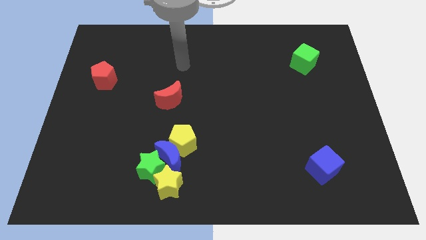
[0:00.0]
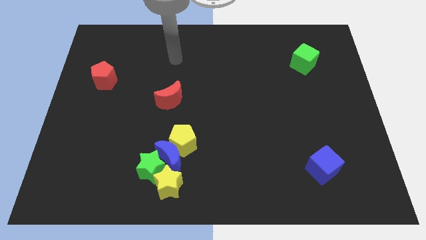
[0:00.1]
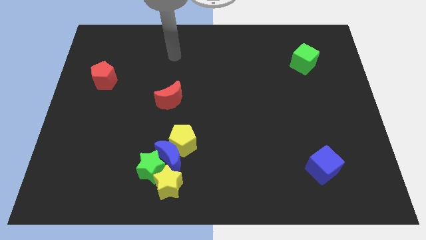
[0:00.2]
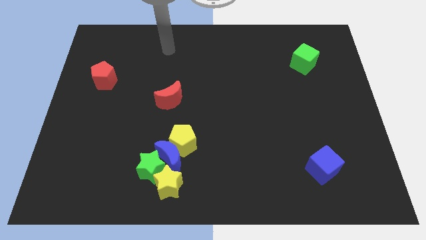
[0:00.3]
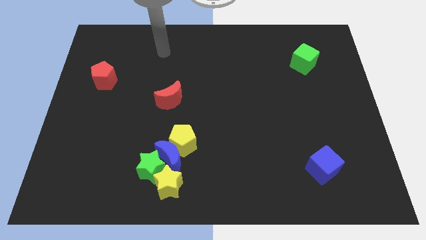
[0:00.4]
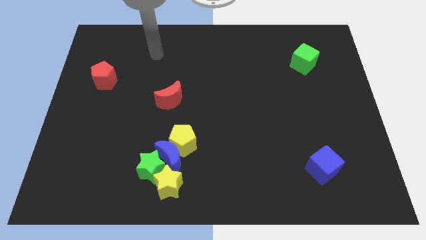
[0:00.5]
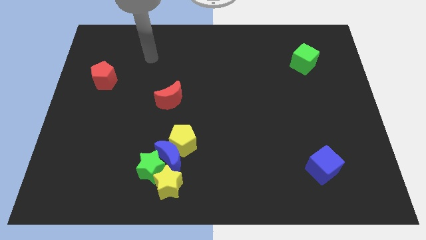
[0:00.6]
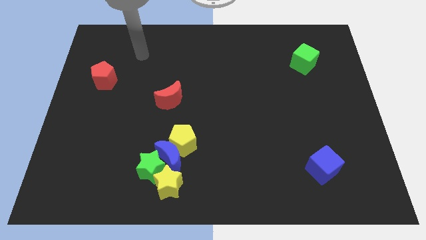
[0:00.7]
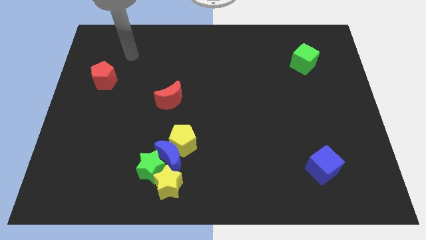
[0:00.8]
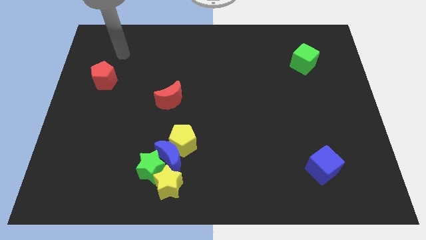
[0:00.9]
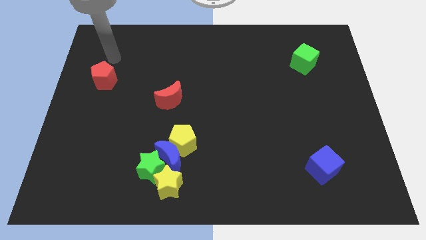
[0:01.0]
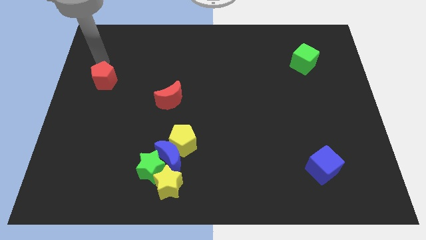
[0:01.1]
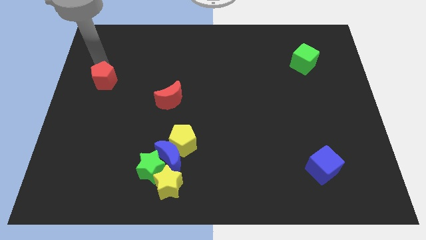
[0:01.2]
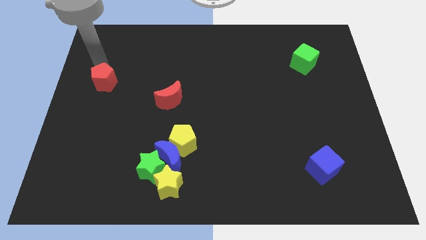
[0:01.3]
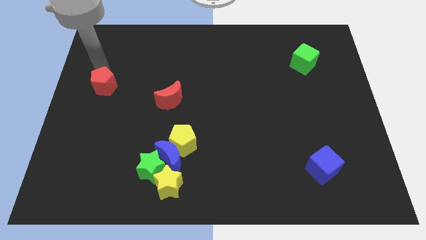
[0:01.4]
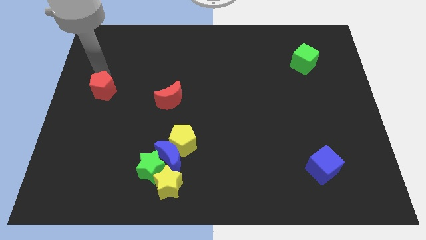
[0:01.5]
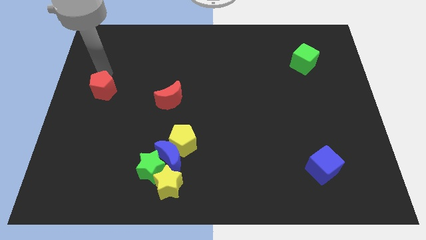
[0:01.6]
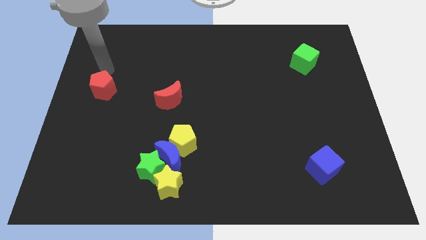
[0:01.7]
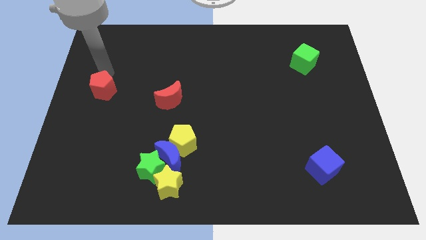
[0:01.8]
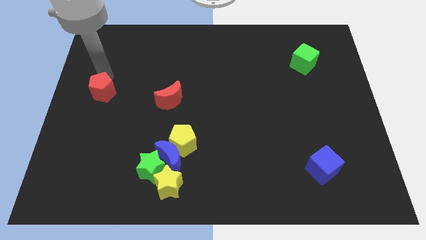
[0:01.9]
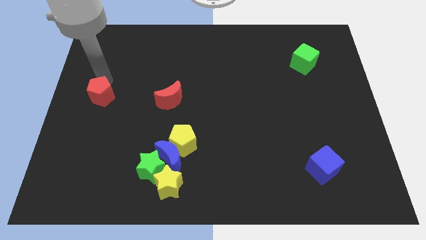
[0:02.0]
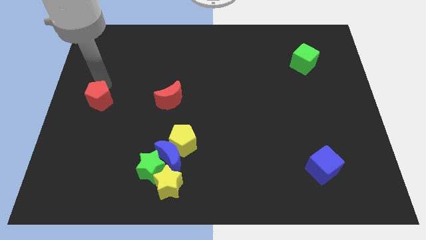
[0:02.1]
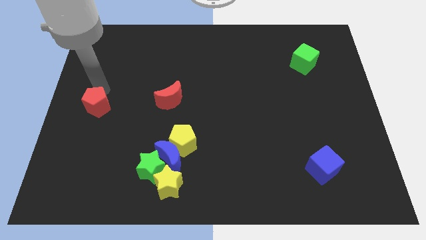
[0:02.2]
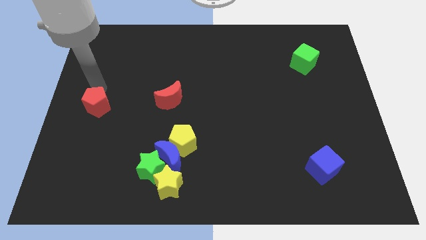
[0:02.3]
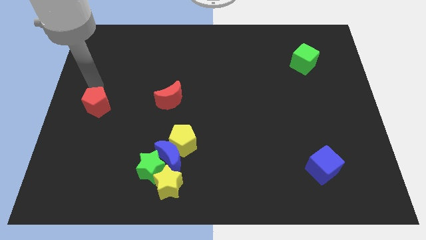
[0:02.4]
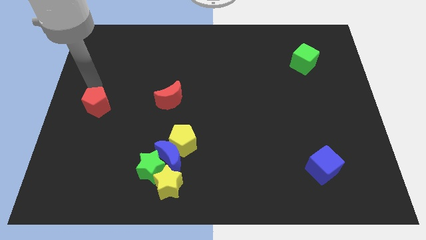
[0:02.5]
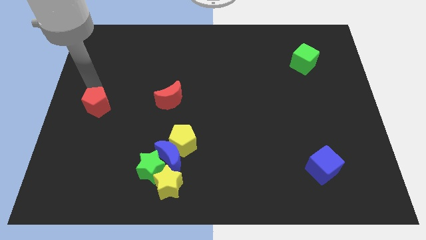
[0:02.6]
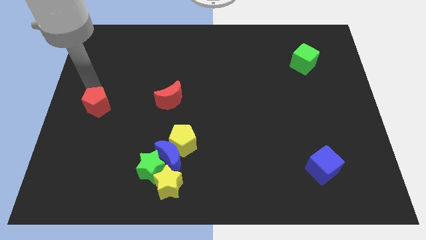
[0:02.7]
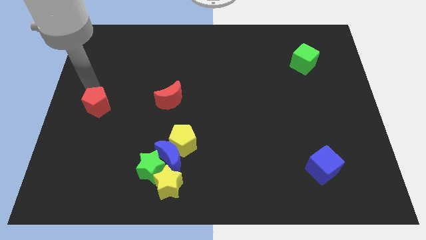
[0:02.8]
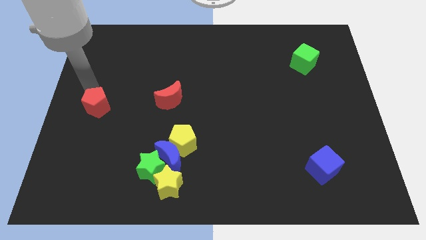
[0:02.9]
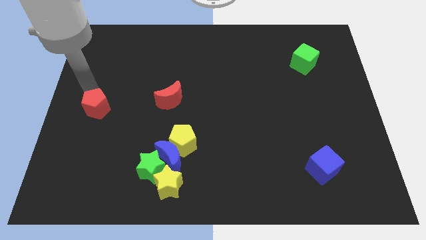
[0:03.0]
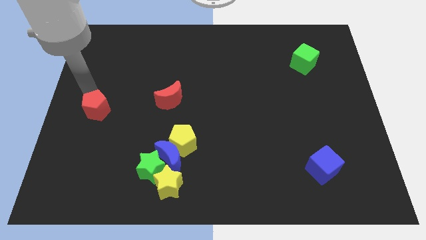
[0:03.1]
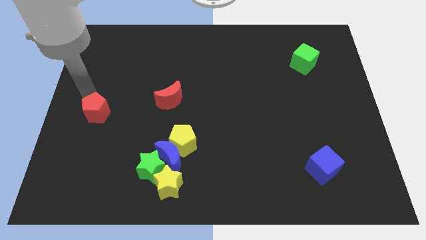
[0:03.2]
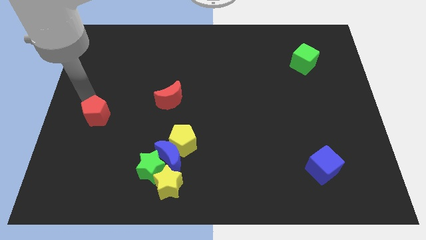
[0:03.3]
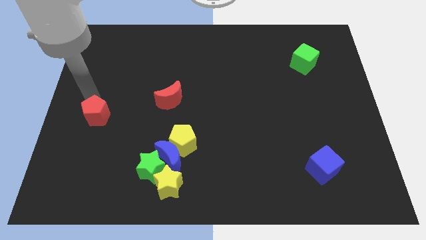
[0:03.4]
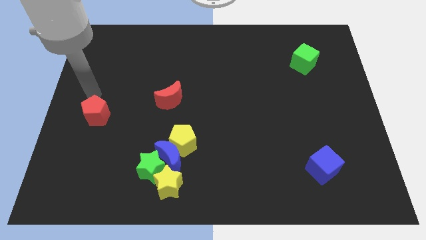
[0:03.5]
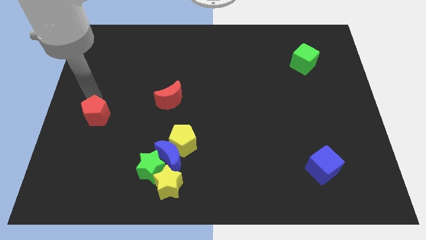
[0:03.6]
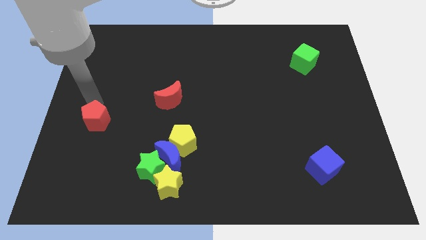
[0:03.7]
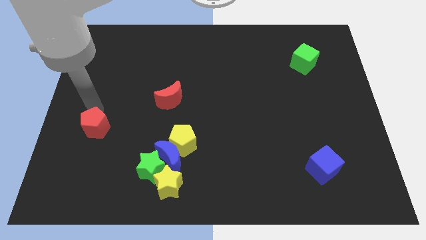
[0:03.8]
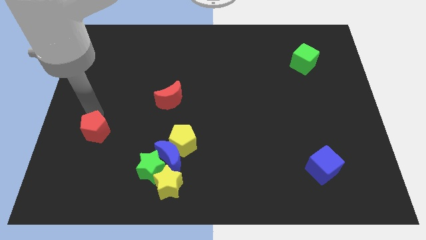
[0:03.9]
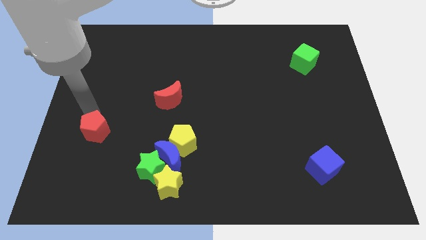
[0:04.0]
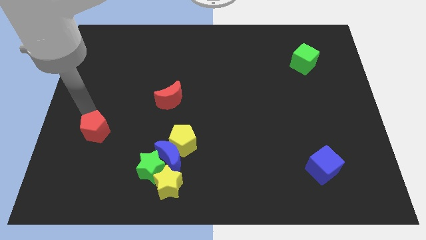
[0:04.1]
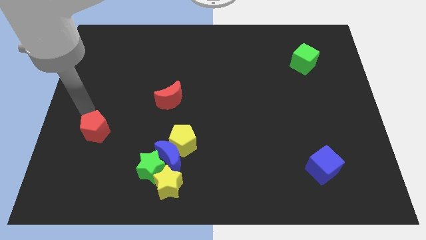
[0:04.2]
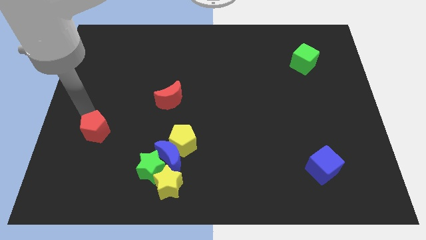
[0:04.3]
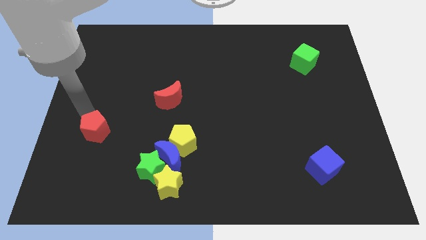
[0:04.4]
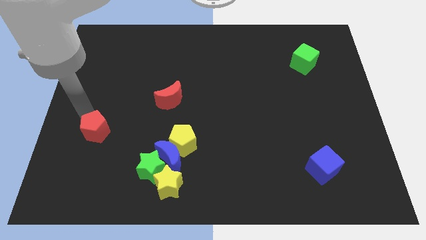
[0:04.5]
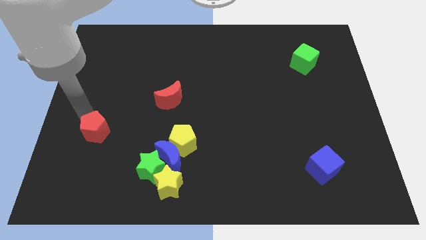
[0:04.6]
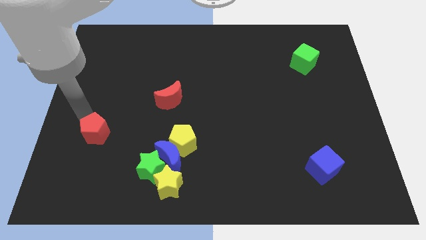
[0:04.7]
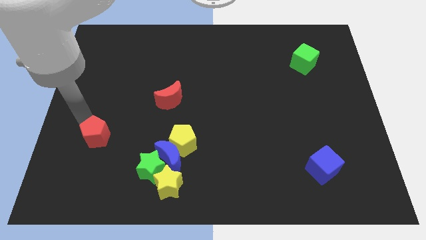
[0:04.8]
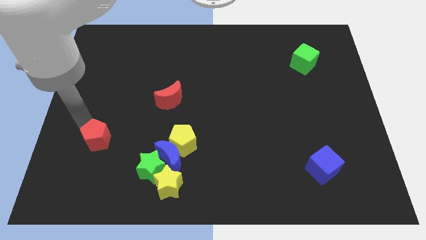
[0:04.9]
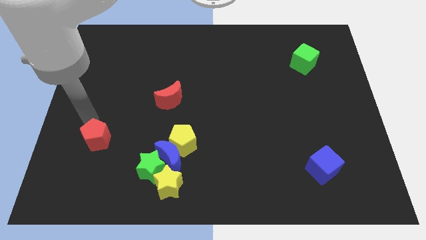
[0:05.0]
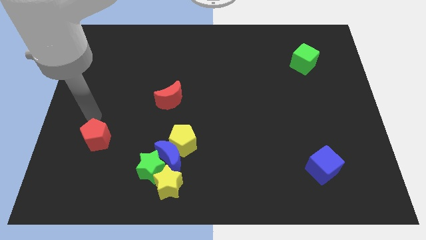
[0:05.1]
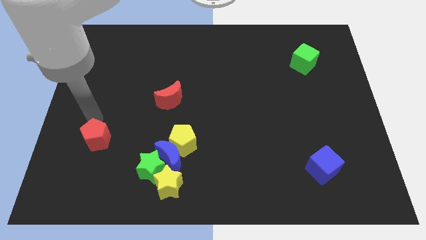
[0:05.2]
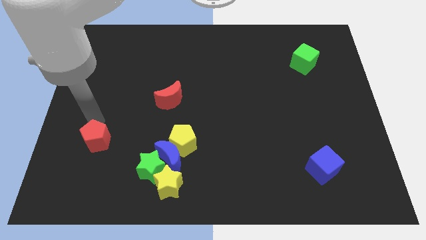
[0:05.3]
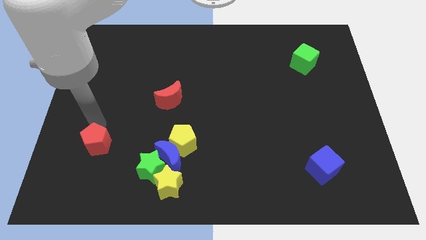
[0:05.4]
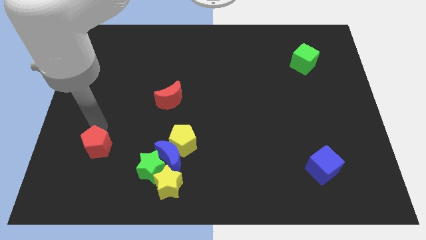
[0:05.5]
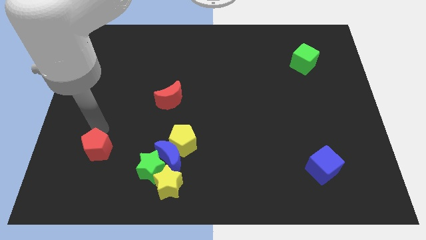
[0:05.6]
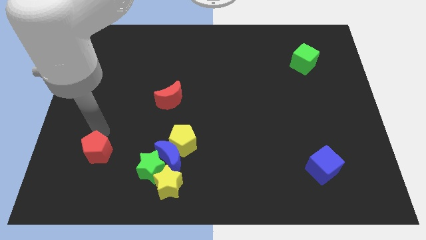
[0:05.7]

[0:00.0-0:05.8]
slide the red pentagon to the left of the green star

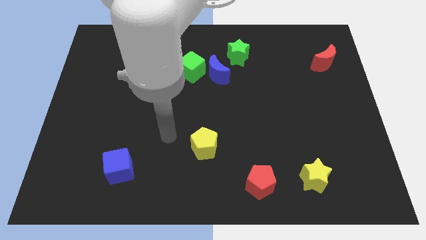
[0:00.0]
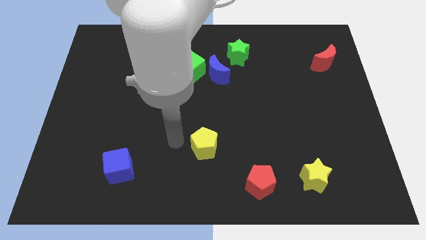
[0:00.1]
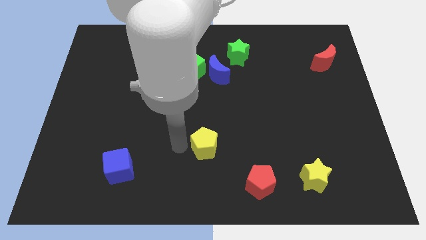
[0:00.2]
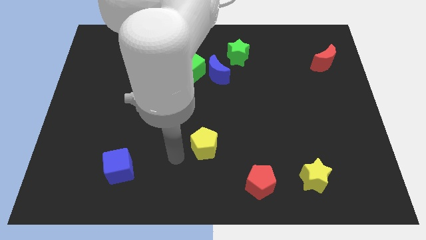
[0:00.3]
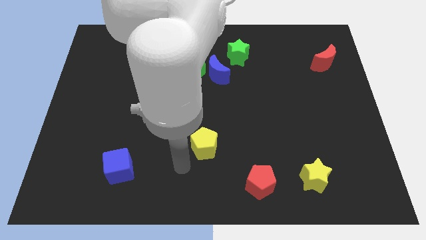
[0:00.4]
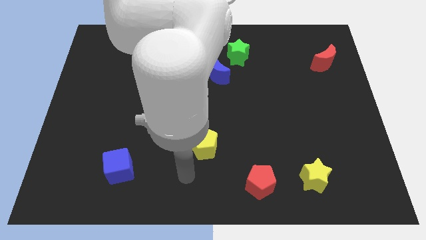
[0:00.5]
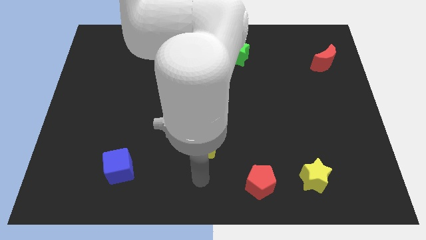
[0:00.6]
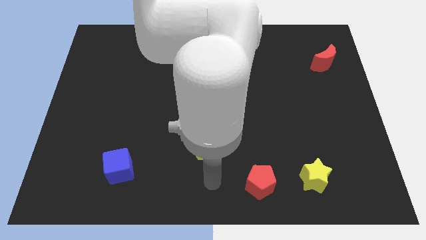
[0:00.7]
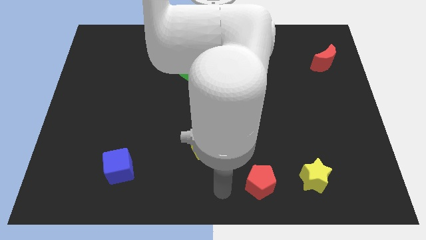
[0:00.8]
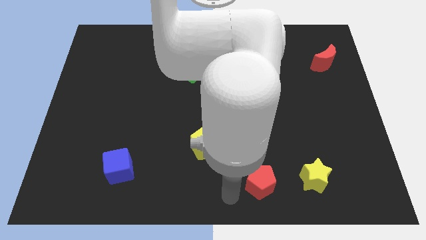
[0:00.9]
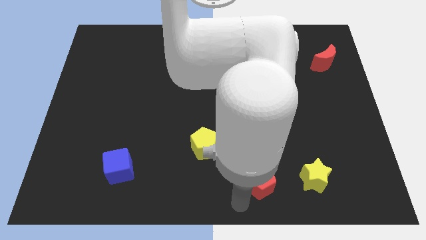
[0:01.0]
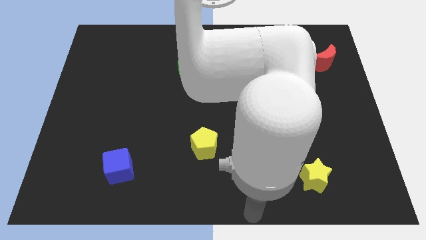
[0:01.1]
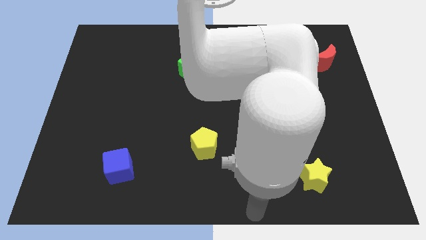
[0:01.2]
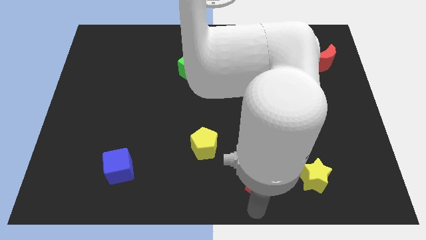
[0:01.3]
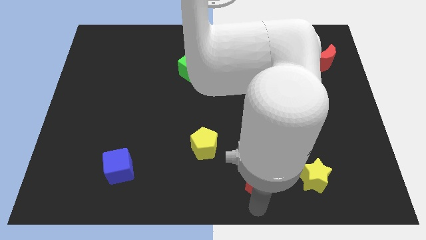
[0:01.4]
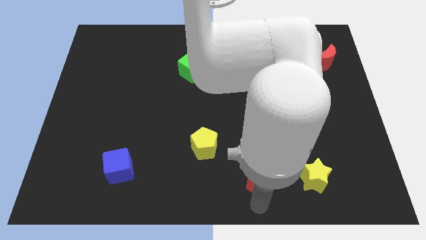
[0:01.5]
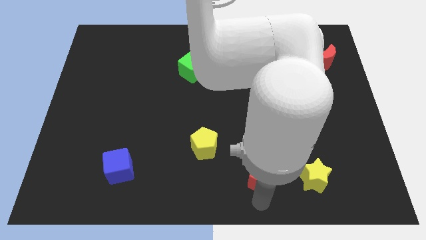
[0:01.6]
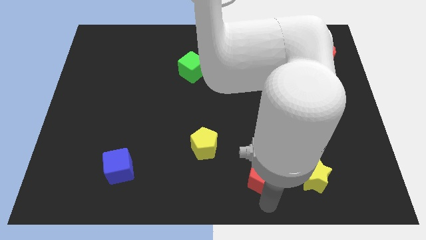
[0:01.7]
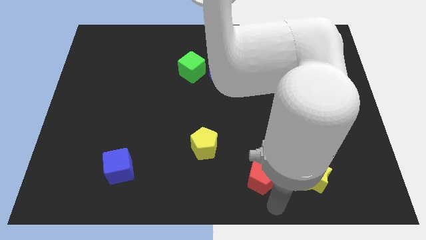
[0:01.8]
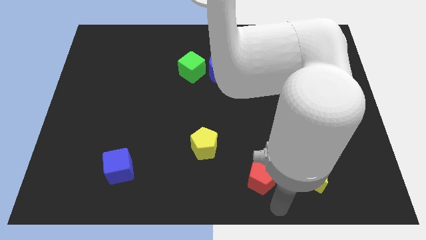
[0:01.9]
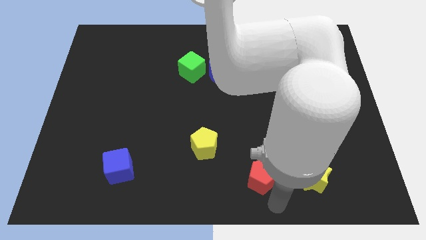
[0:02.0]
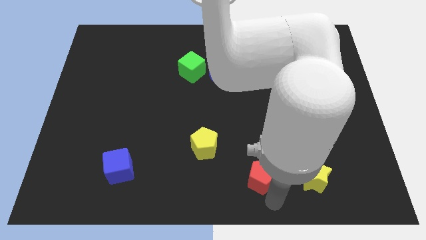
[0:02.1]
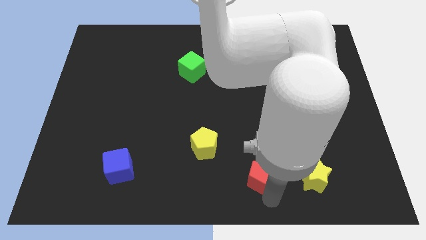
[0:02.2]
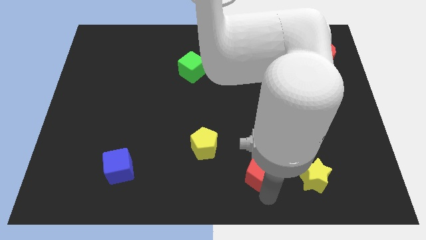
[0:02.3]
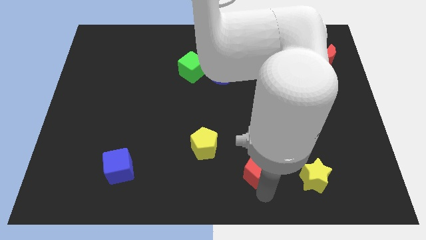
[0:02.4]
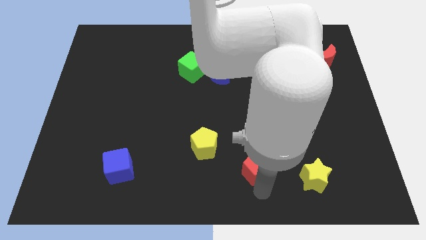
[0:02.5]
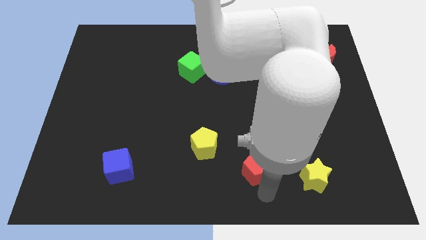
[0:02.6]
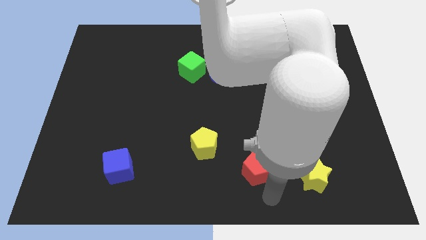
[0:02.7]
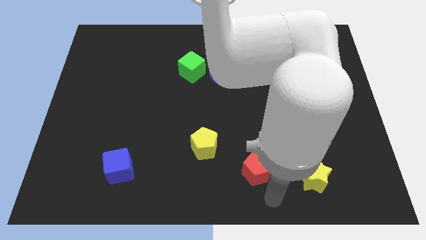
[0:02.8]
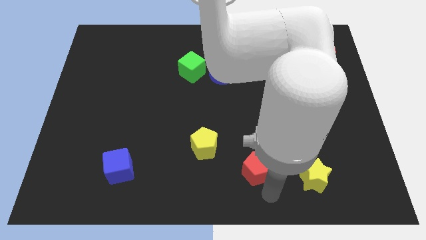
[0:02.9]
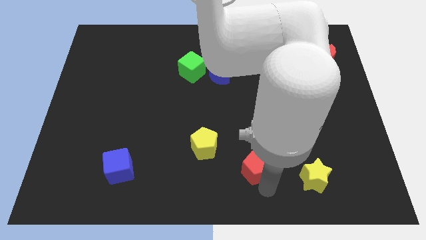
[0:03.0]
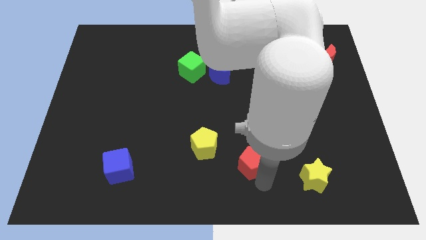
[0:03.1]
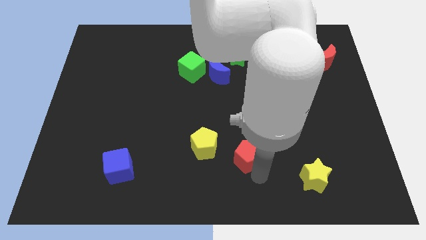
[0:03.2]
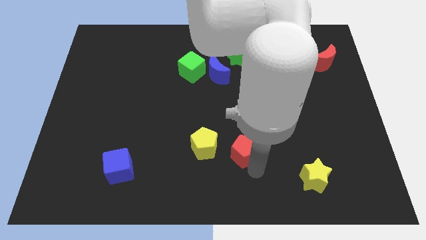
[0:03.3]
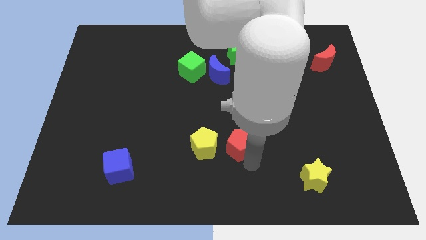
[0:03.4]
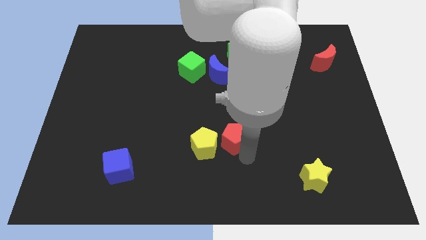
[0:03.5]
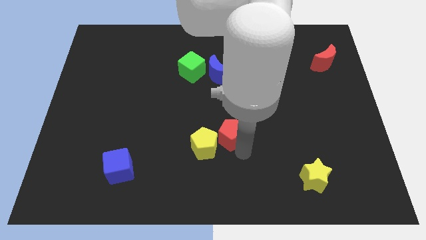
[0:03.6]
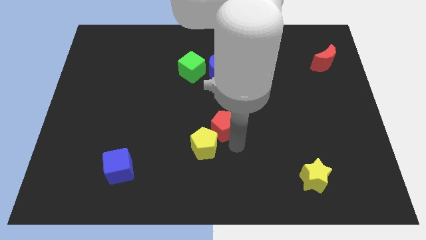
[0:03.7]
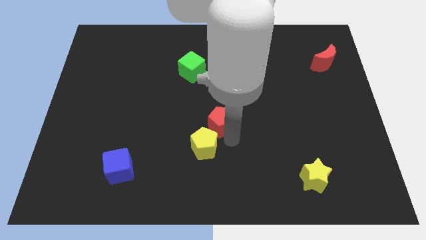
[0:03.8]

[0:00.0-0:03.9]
move the red pentagon below the blue moon
